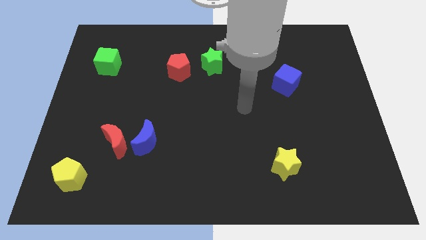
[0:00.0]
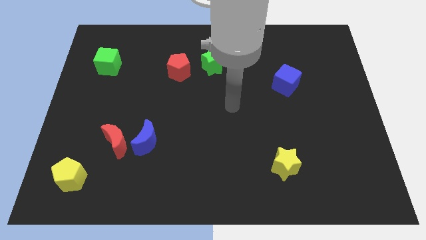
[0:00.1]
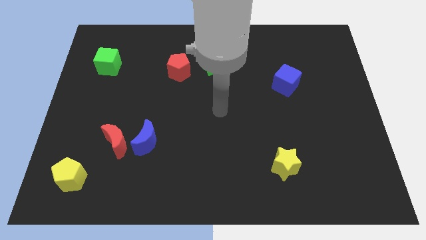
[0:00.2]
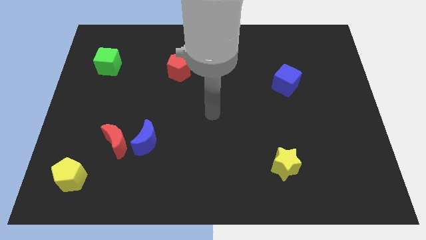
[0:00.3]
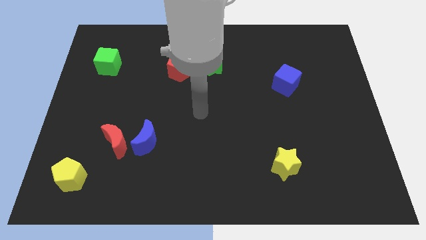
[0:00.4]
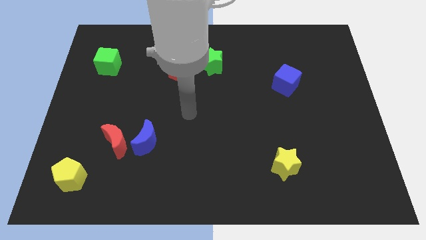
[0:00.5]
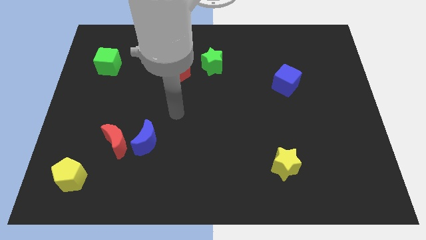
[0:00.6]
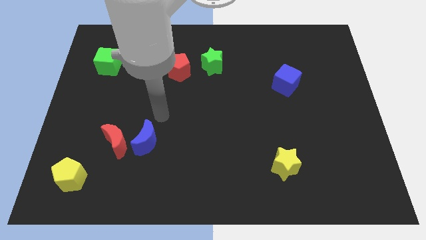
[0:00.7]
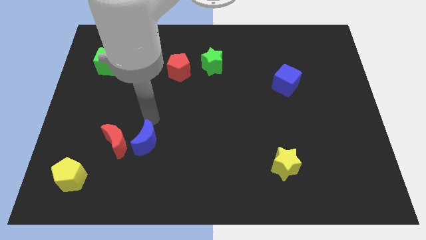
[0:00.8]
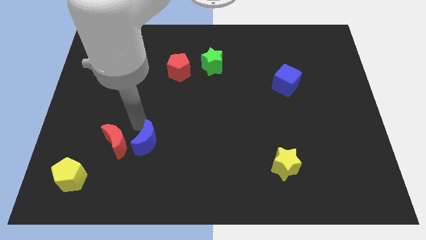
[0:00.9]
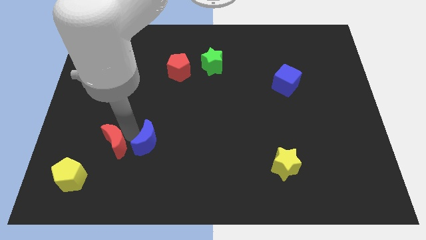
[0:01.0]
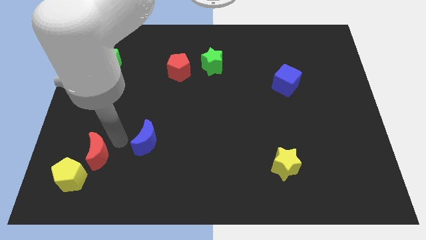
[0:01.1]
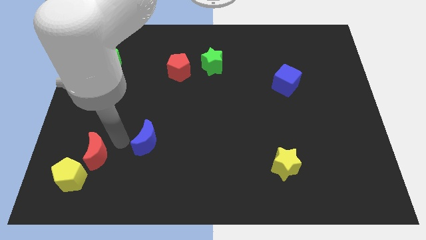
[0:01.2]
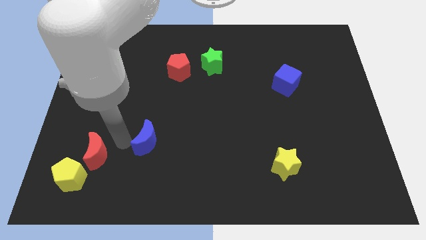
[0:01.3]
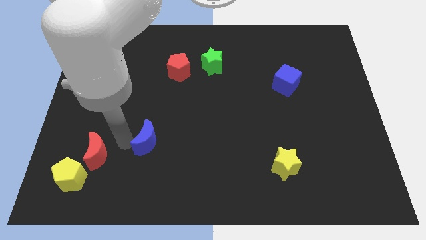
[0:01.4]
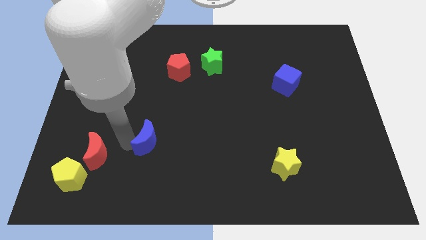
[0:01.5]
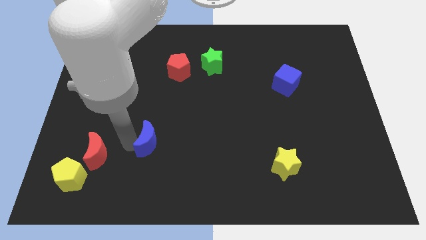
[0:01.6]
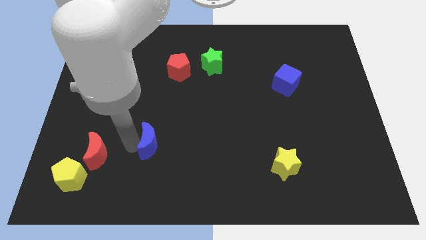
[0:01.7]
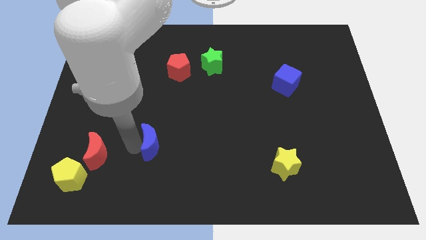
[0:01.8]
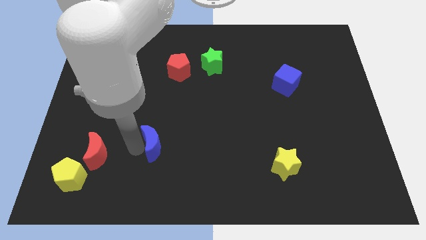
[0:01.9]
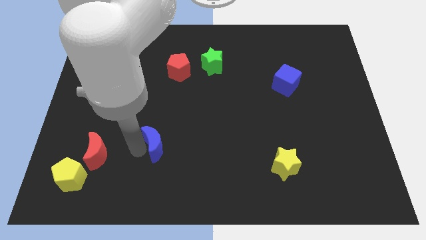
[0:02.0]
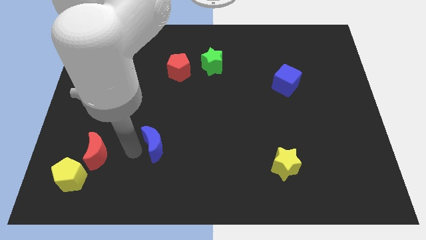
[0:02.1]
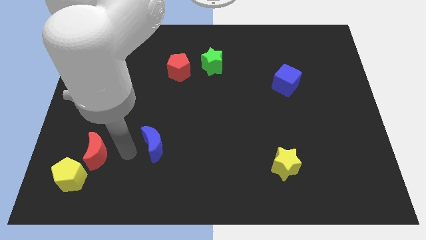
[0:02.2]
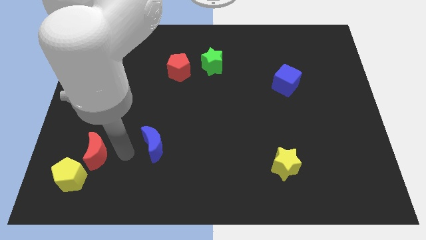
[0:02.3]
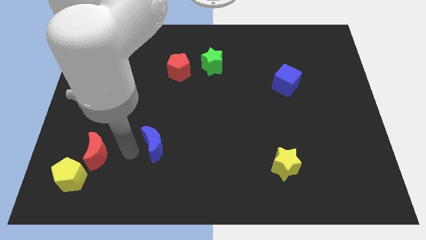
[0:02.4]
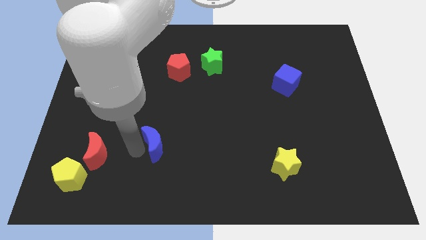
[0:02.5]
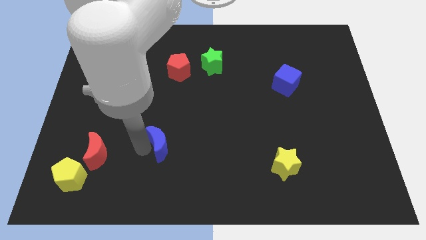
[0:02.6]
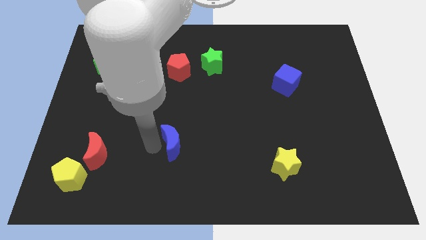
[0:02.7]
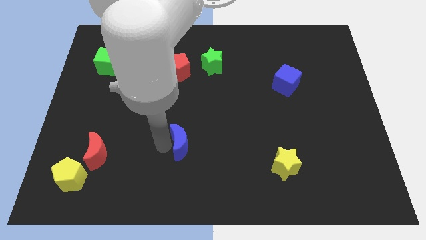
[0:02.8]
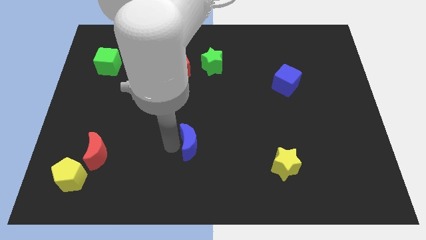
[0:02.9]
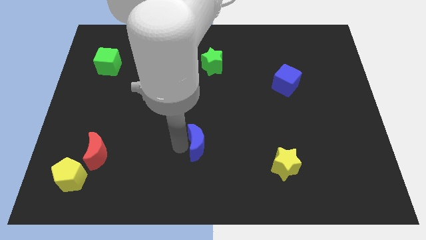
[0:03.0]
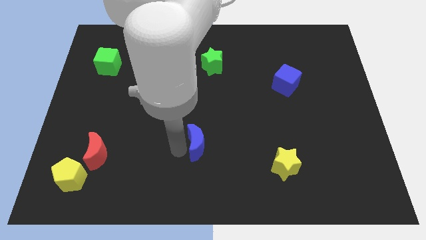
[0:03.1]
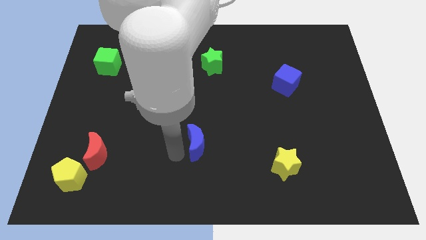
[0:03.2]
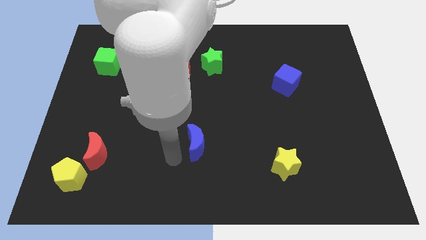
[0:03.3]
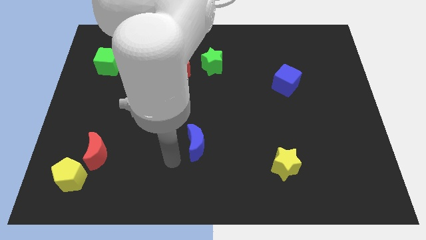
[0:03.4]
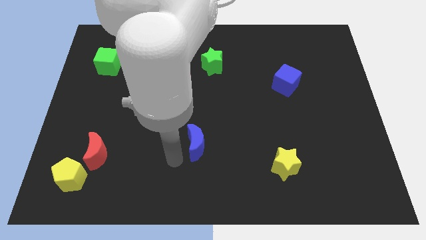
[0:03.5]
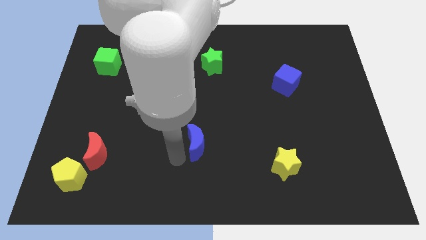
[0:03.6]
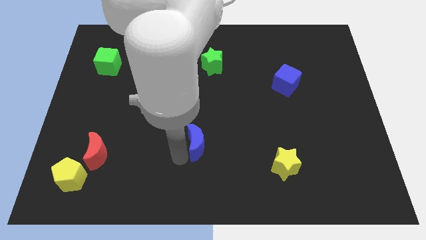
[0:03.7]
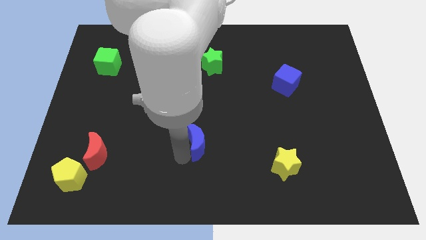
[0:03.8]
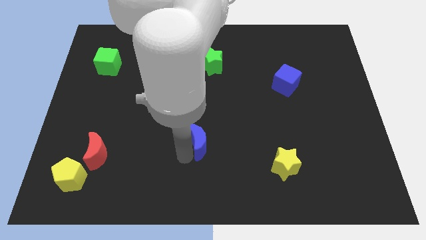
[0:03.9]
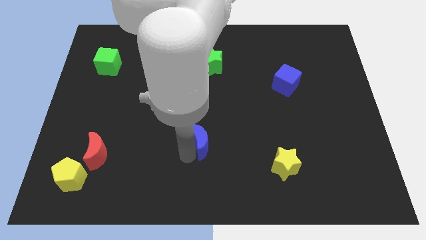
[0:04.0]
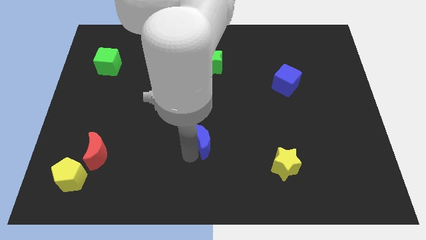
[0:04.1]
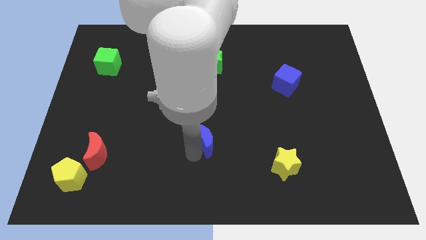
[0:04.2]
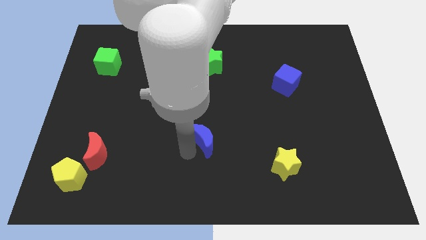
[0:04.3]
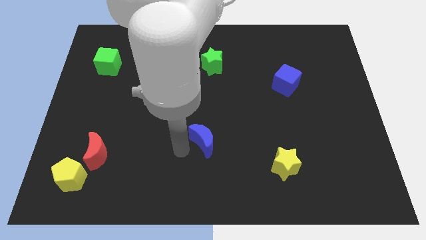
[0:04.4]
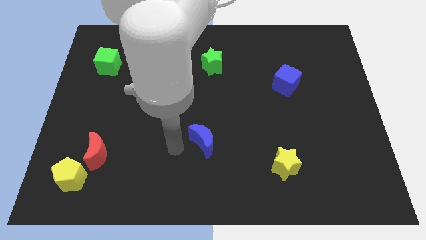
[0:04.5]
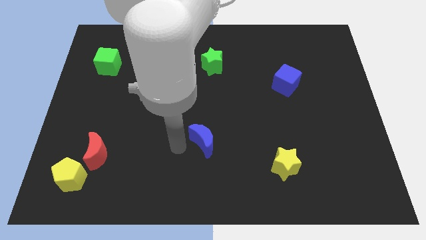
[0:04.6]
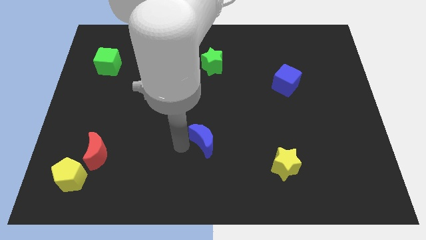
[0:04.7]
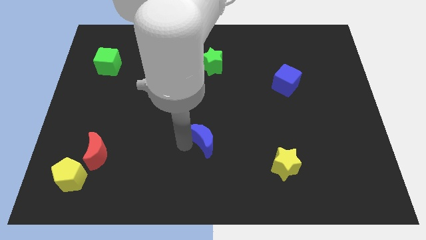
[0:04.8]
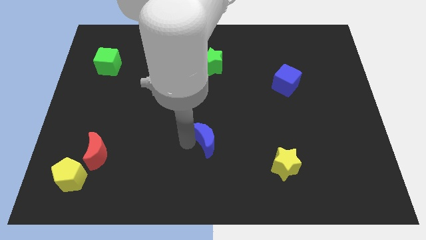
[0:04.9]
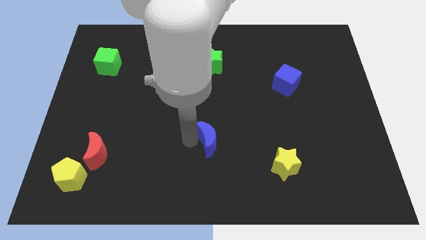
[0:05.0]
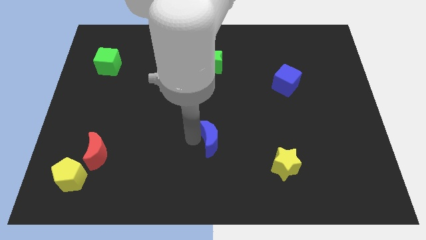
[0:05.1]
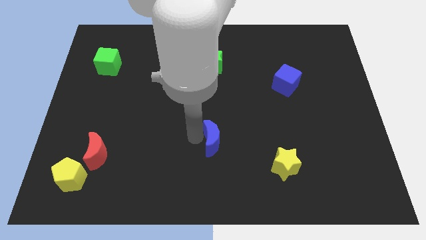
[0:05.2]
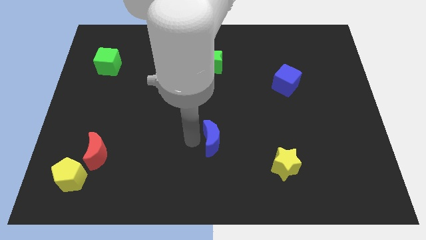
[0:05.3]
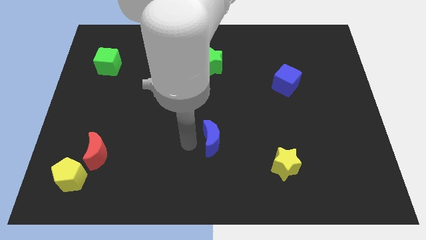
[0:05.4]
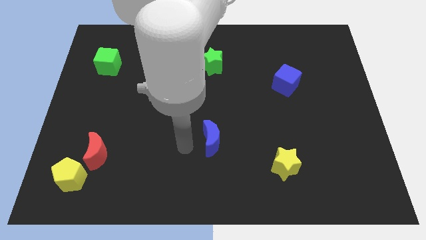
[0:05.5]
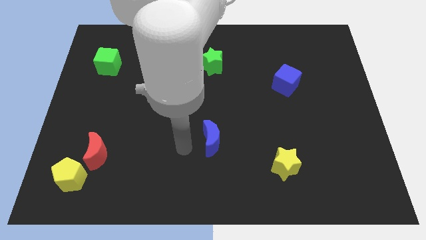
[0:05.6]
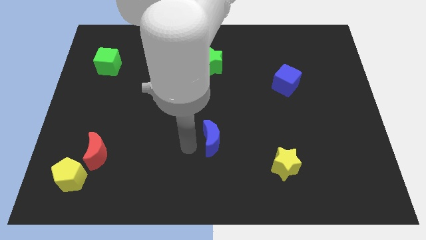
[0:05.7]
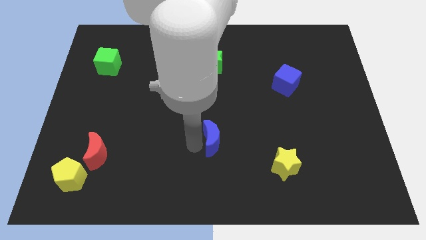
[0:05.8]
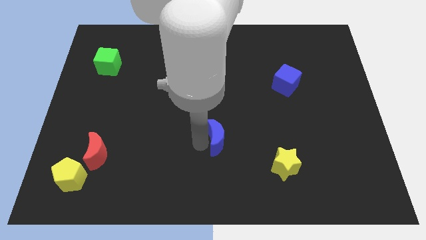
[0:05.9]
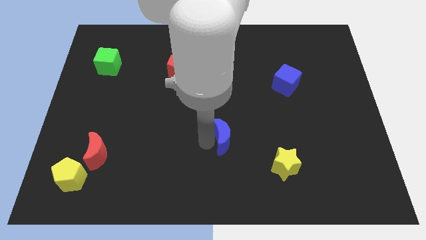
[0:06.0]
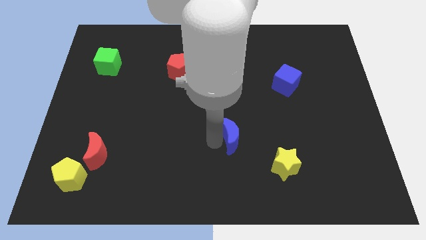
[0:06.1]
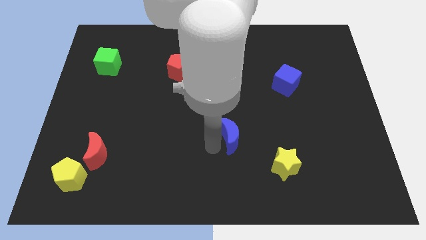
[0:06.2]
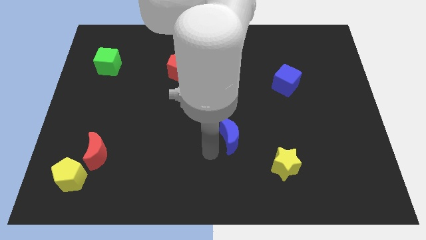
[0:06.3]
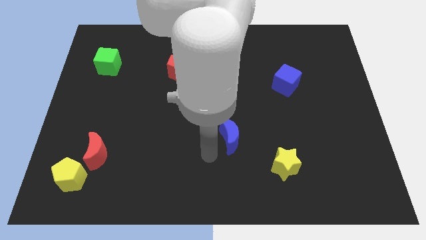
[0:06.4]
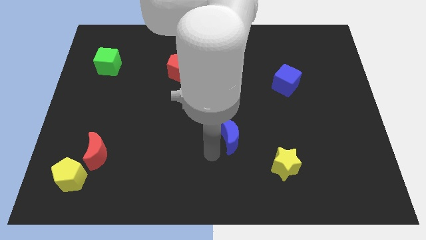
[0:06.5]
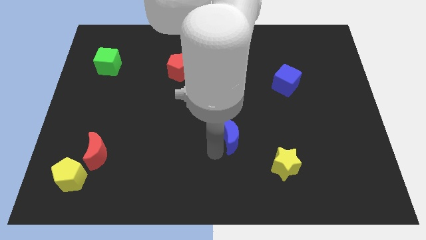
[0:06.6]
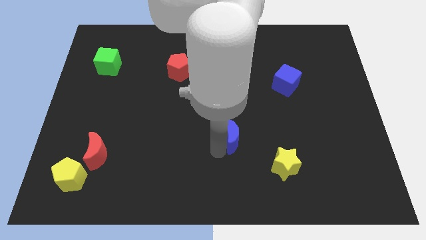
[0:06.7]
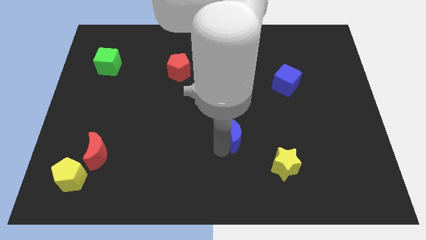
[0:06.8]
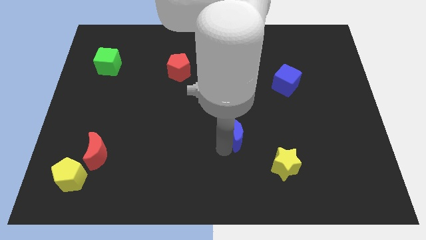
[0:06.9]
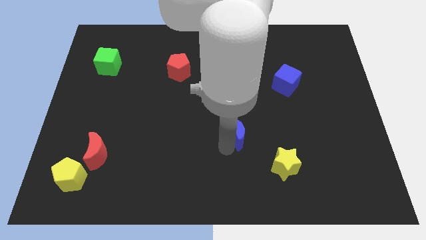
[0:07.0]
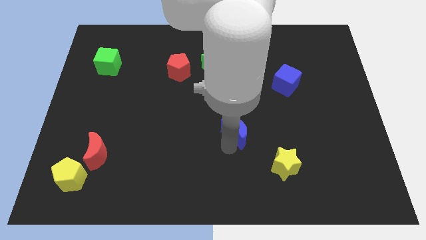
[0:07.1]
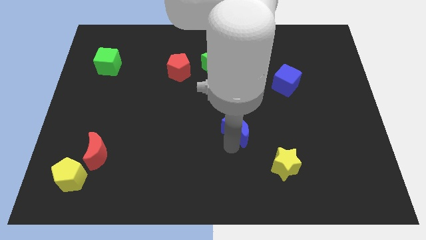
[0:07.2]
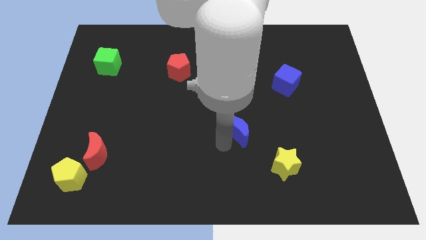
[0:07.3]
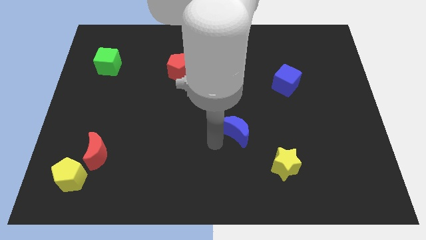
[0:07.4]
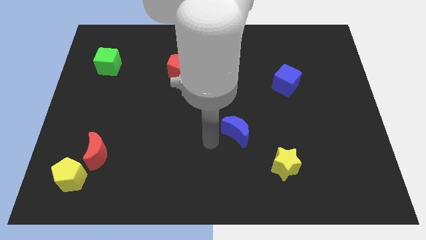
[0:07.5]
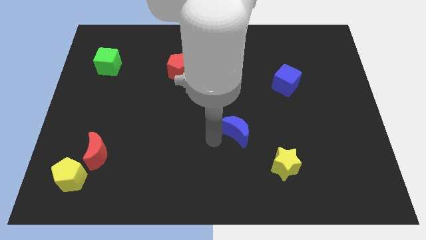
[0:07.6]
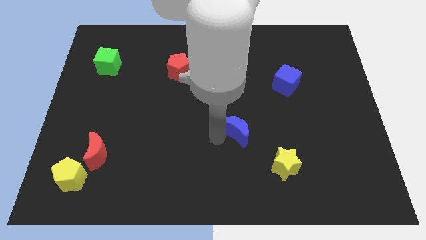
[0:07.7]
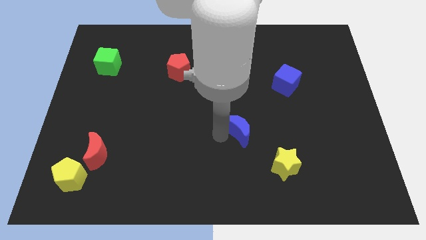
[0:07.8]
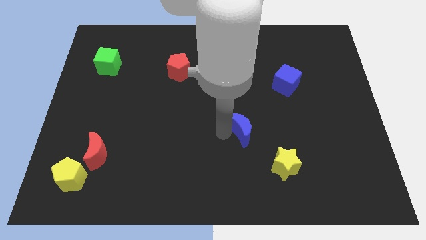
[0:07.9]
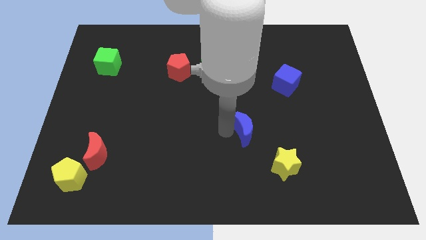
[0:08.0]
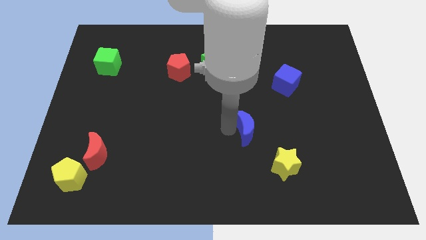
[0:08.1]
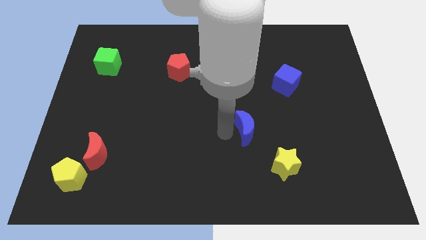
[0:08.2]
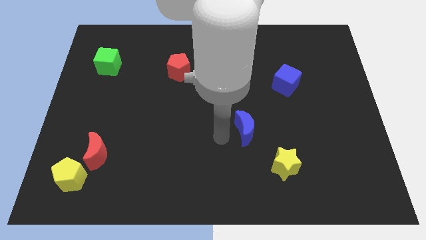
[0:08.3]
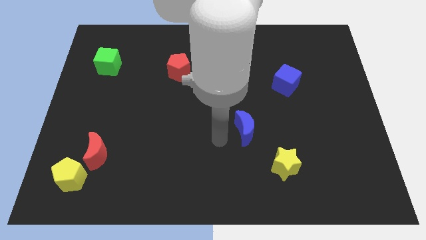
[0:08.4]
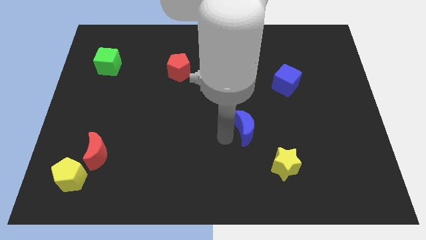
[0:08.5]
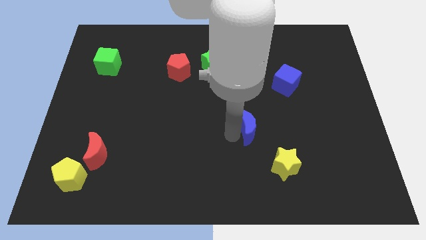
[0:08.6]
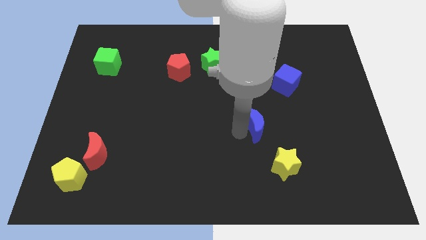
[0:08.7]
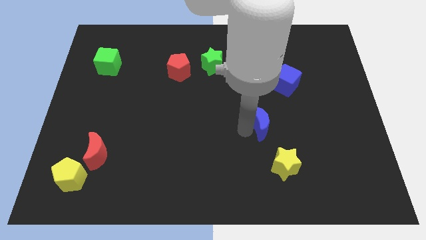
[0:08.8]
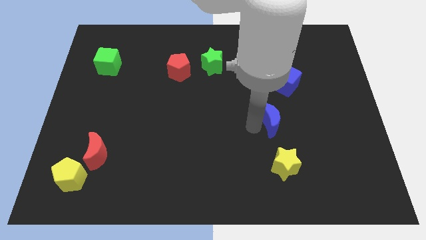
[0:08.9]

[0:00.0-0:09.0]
slide the blue moon to the bottom of the blue cube
